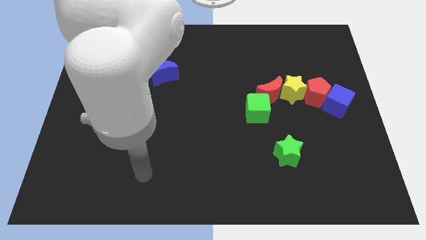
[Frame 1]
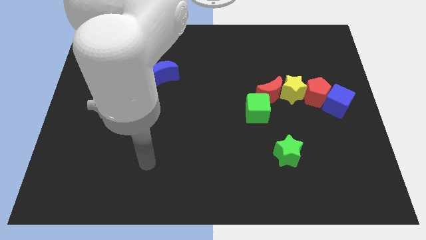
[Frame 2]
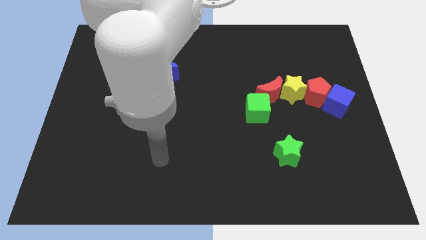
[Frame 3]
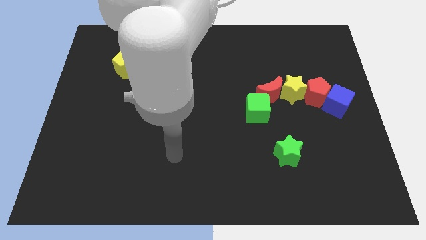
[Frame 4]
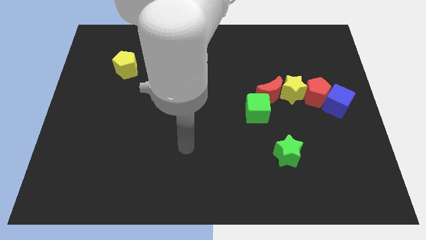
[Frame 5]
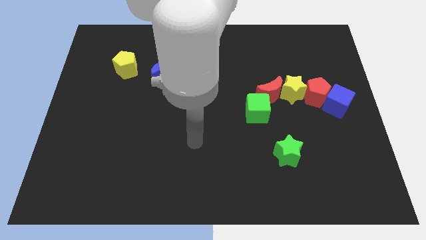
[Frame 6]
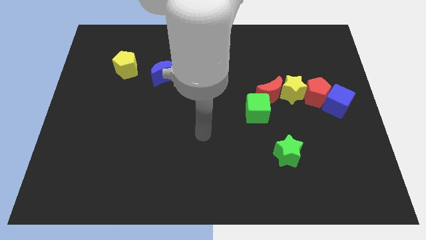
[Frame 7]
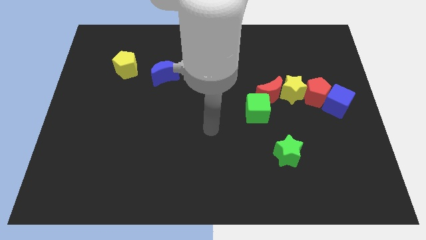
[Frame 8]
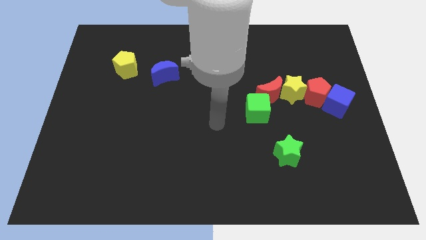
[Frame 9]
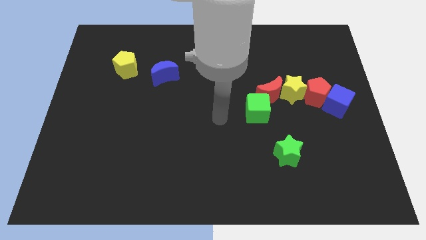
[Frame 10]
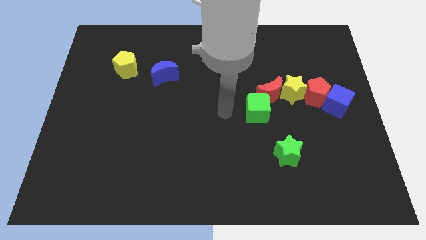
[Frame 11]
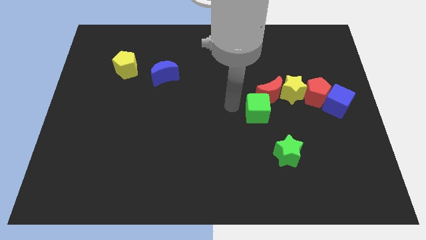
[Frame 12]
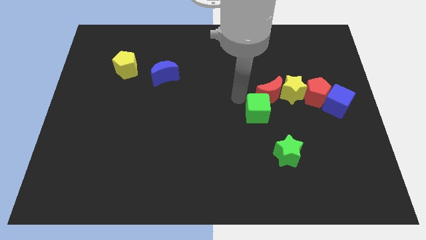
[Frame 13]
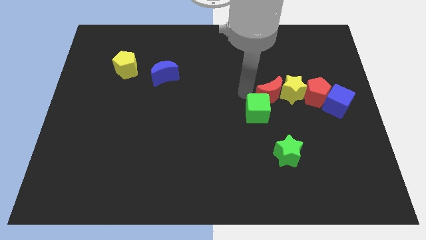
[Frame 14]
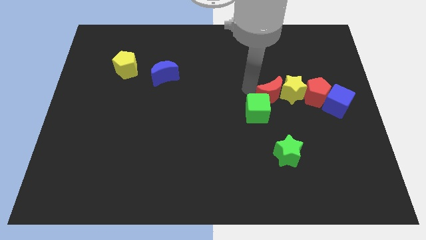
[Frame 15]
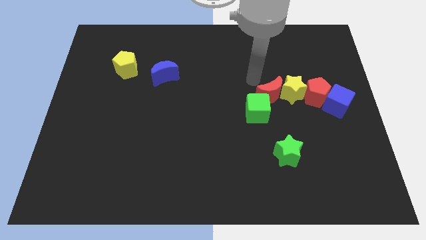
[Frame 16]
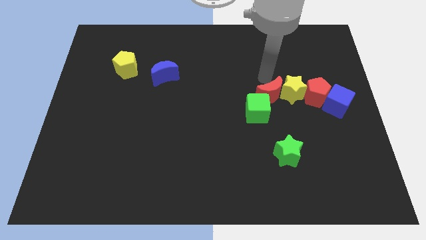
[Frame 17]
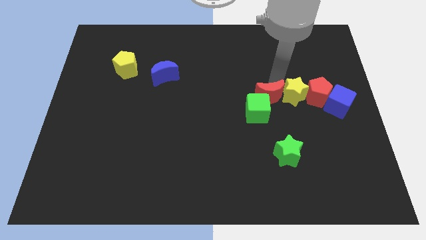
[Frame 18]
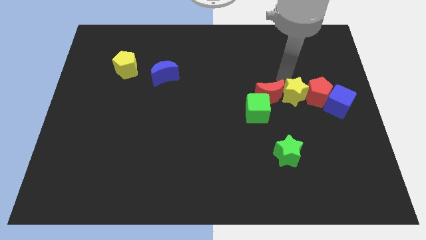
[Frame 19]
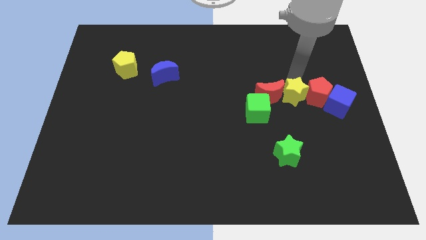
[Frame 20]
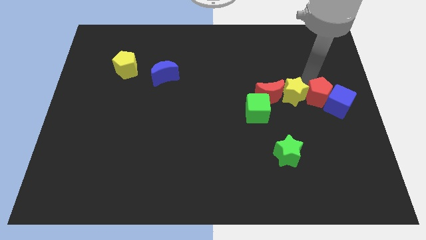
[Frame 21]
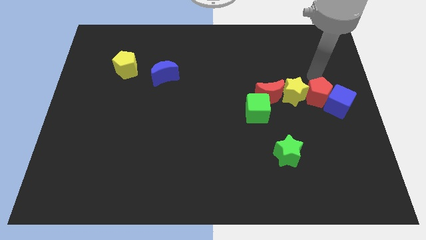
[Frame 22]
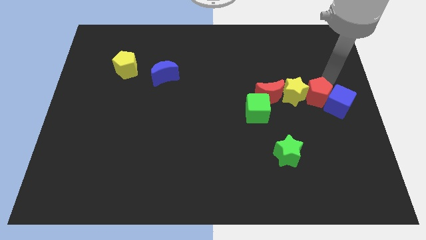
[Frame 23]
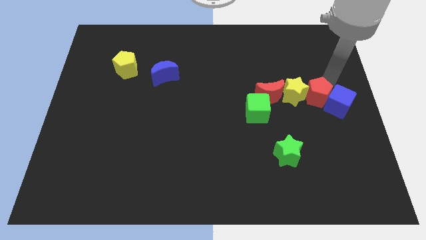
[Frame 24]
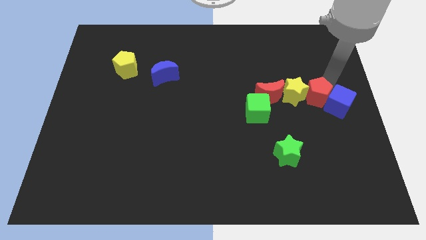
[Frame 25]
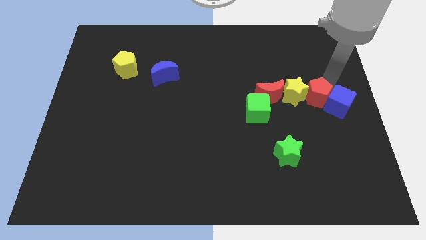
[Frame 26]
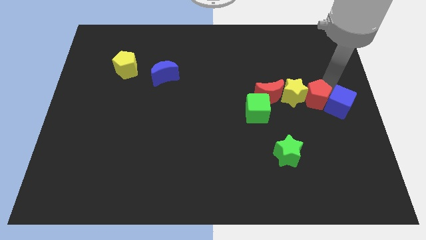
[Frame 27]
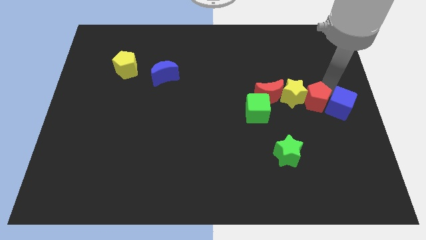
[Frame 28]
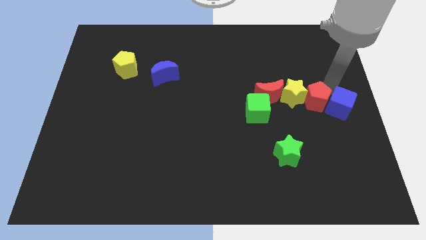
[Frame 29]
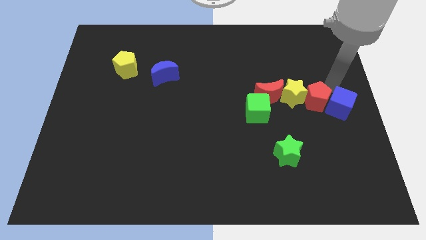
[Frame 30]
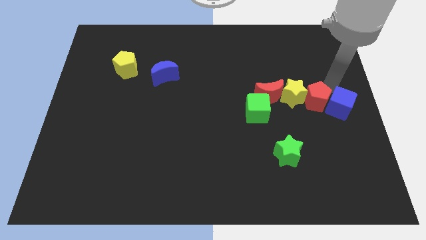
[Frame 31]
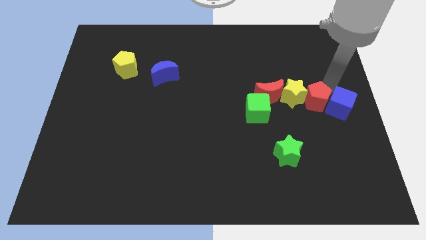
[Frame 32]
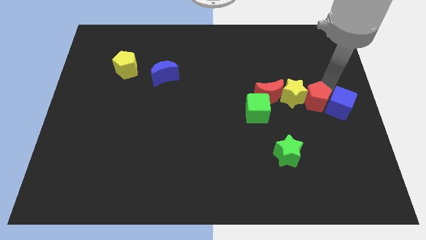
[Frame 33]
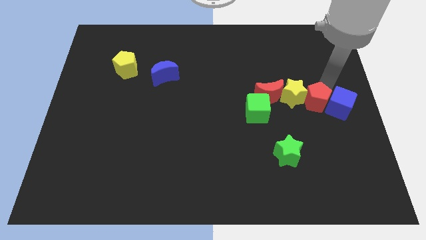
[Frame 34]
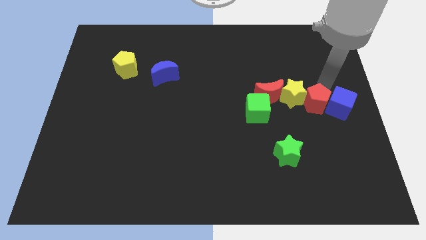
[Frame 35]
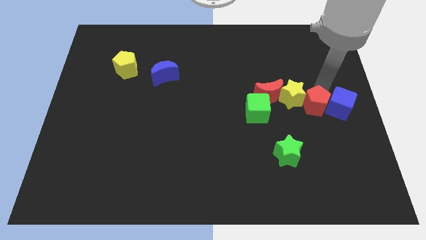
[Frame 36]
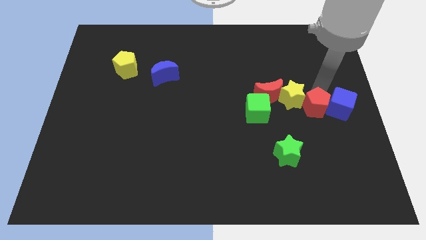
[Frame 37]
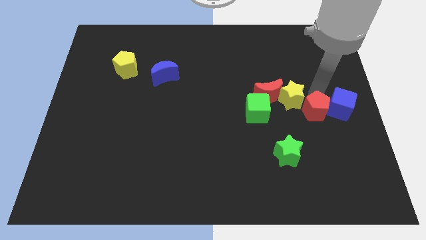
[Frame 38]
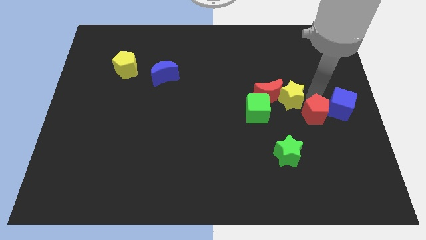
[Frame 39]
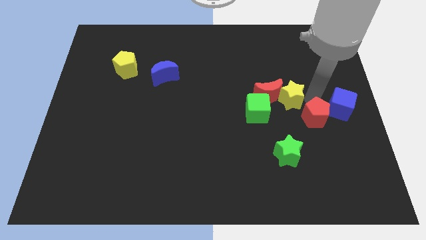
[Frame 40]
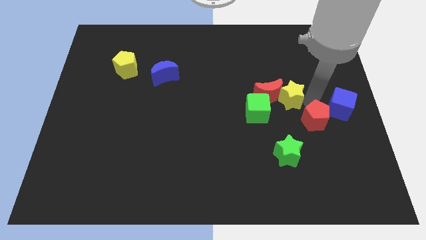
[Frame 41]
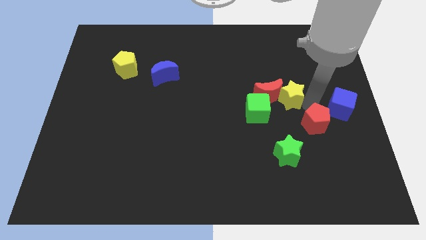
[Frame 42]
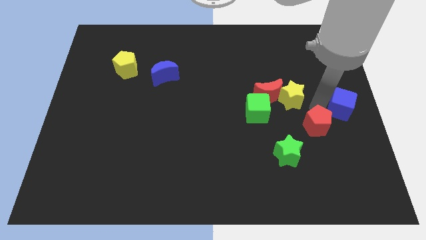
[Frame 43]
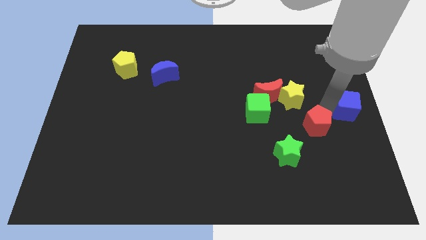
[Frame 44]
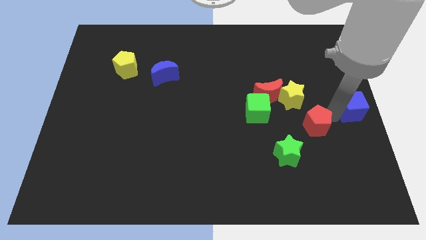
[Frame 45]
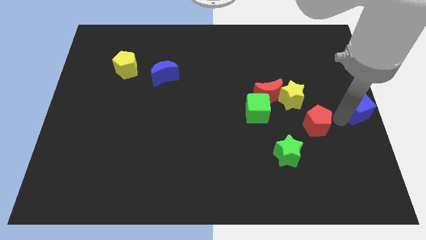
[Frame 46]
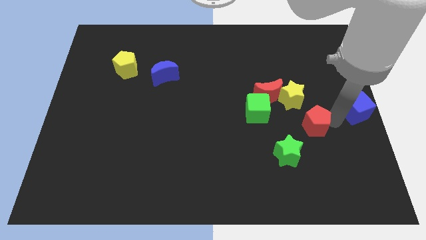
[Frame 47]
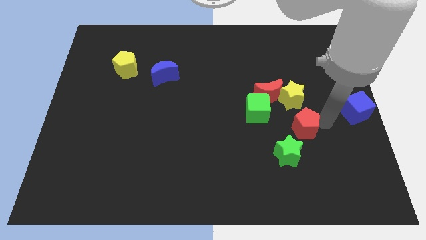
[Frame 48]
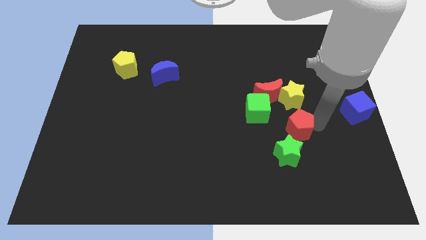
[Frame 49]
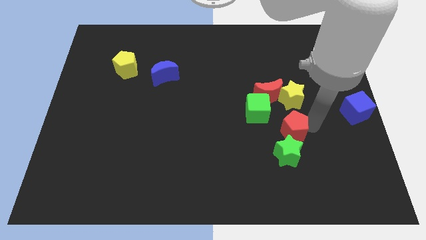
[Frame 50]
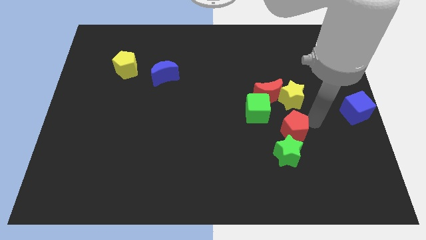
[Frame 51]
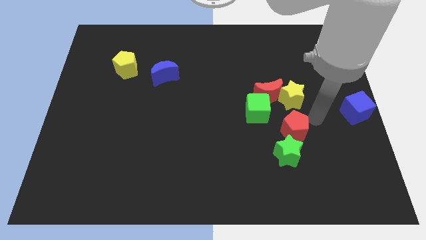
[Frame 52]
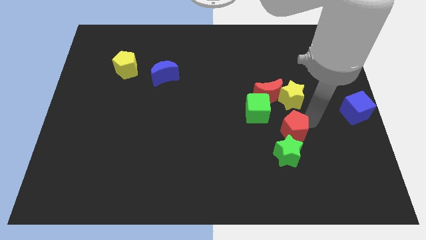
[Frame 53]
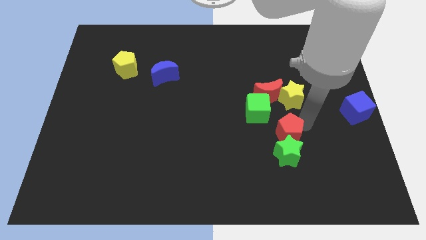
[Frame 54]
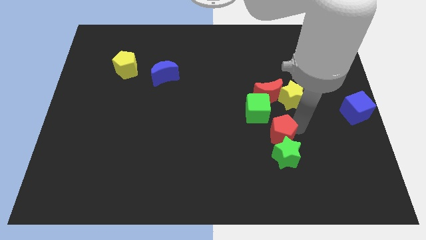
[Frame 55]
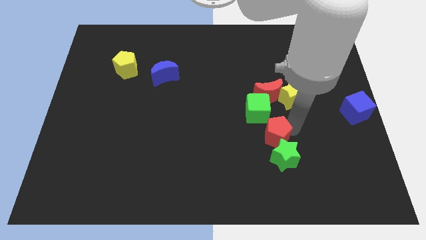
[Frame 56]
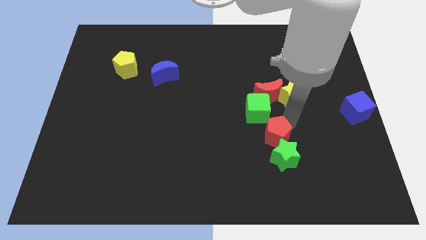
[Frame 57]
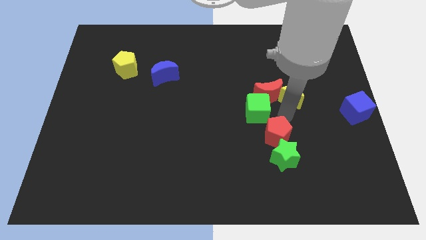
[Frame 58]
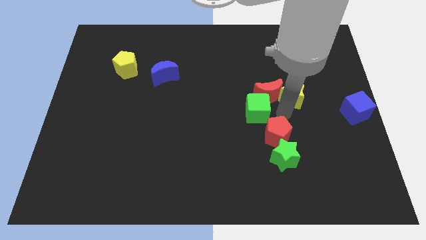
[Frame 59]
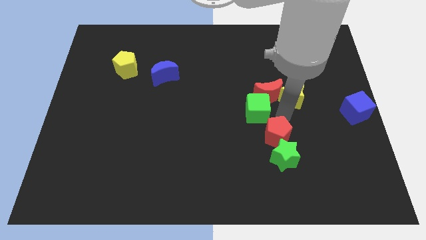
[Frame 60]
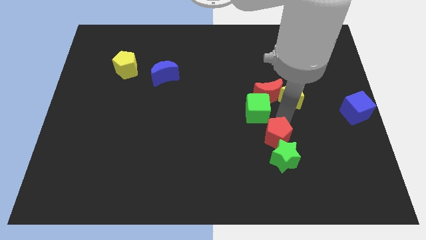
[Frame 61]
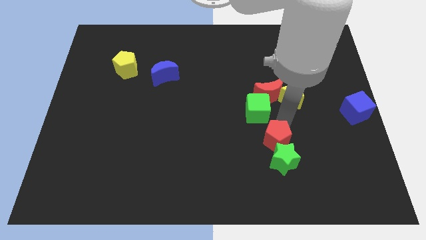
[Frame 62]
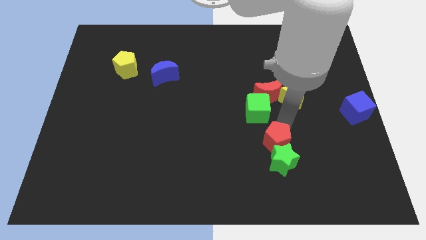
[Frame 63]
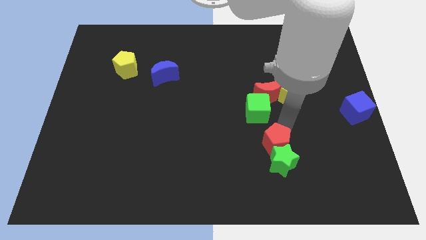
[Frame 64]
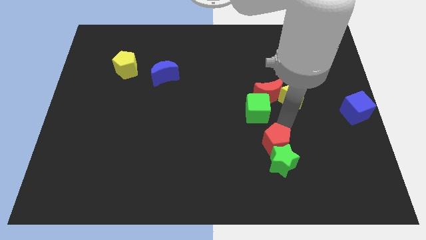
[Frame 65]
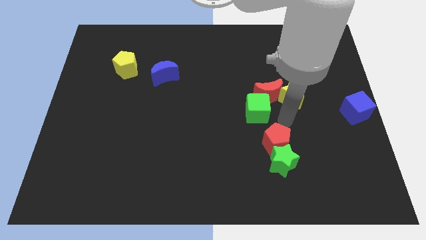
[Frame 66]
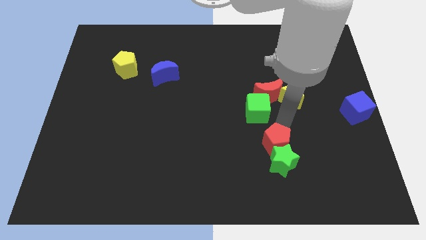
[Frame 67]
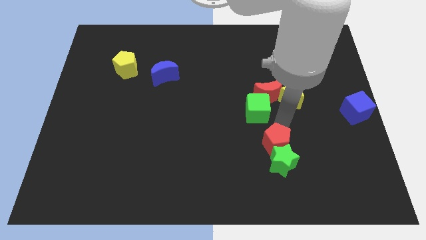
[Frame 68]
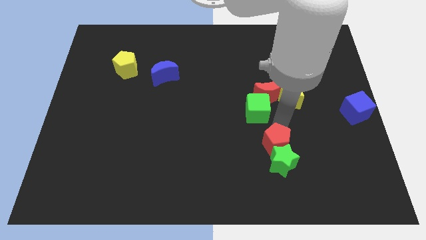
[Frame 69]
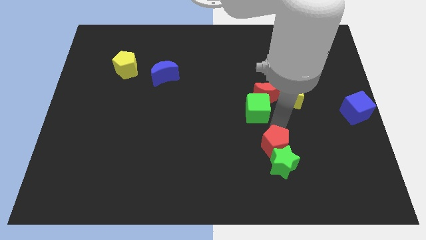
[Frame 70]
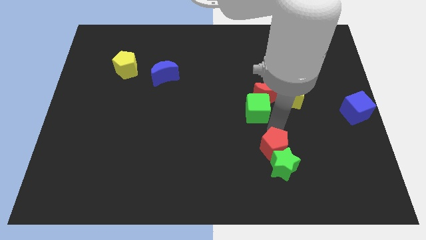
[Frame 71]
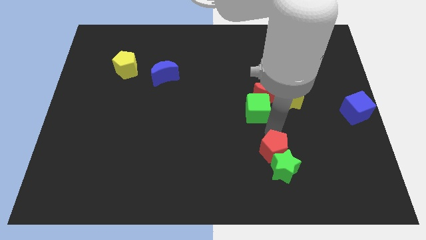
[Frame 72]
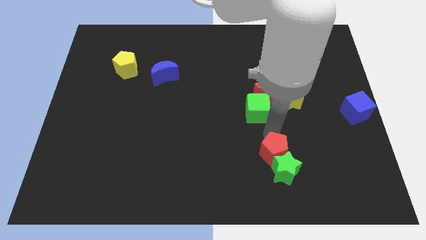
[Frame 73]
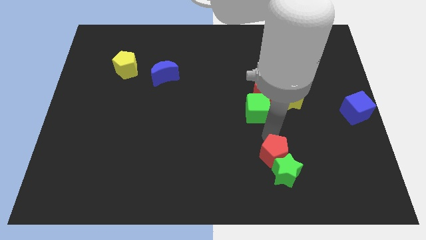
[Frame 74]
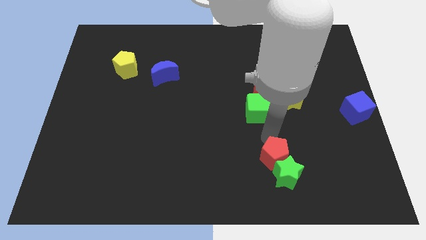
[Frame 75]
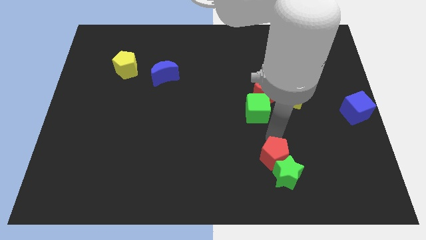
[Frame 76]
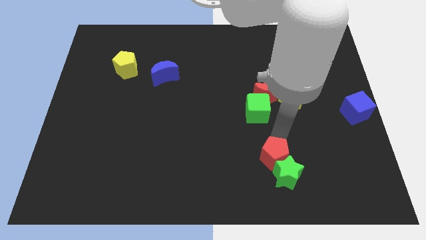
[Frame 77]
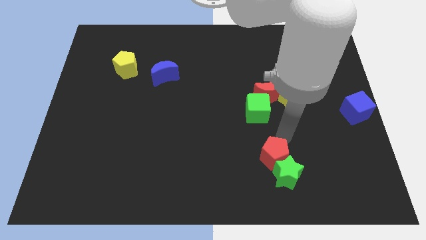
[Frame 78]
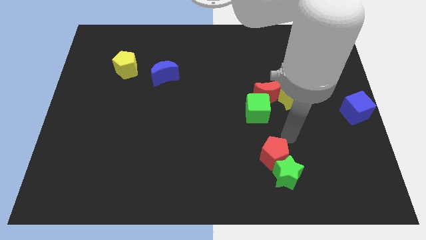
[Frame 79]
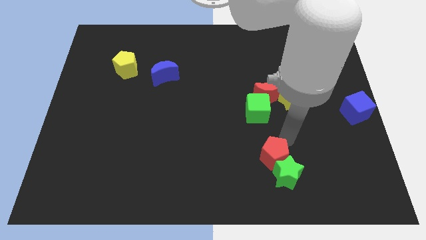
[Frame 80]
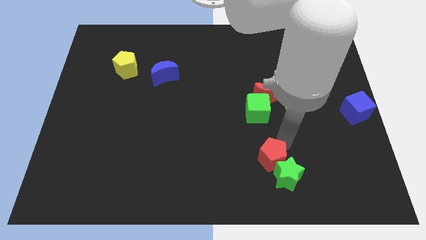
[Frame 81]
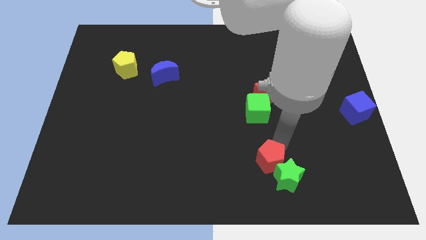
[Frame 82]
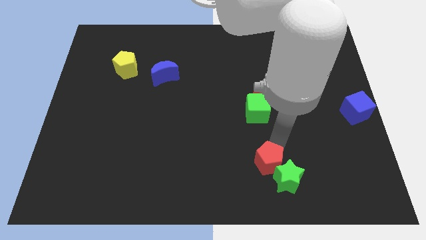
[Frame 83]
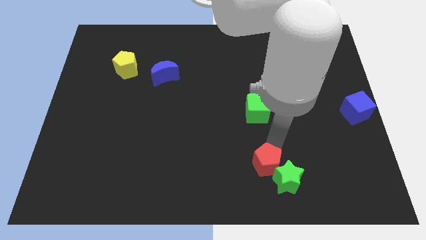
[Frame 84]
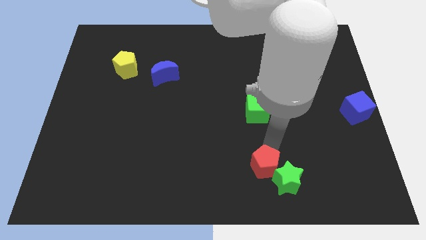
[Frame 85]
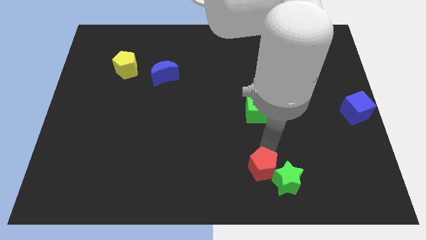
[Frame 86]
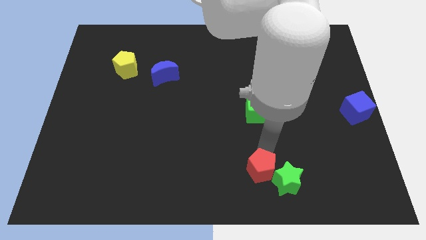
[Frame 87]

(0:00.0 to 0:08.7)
push the red pentagon to the bottom side
